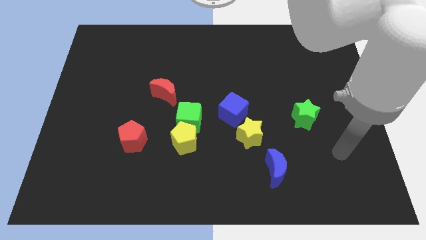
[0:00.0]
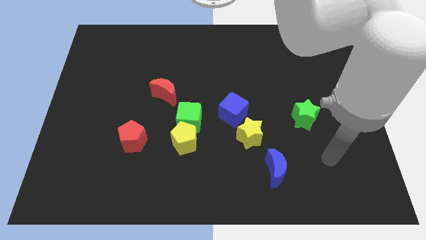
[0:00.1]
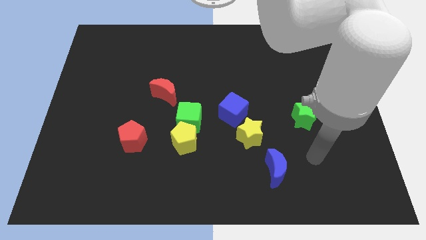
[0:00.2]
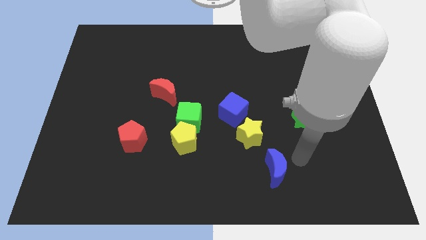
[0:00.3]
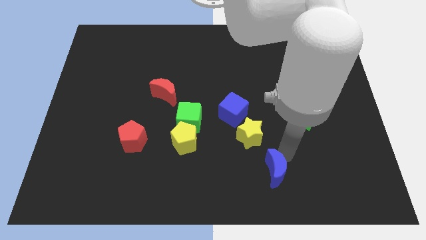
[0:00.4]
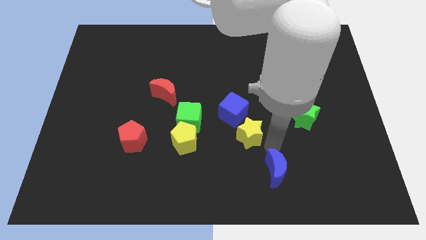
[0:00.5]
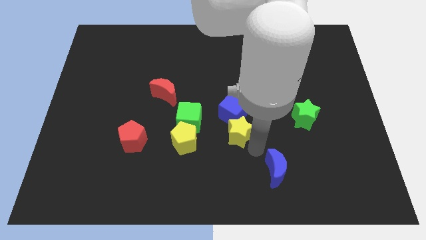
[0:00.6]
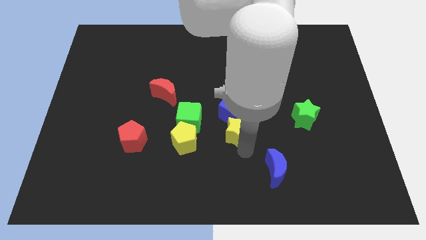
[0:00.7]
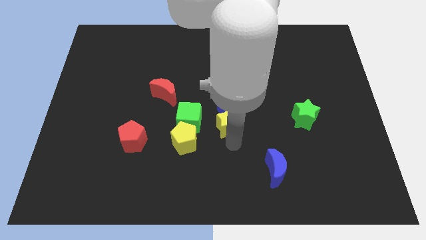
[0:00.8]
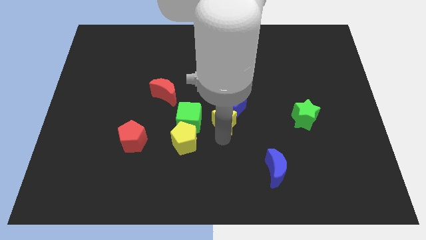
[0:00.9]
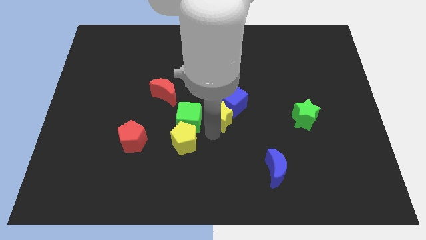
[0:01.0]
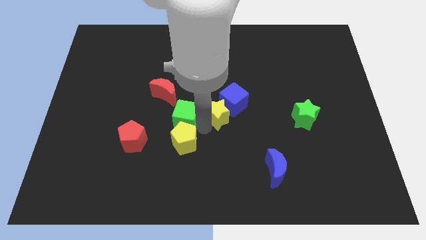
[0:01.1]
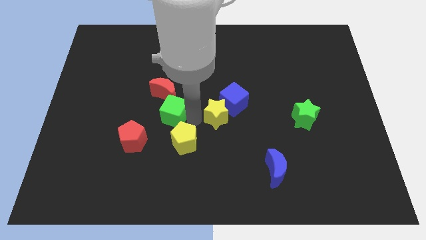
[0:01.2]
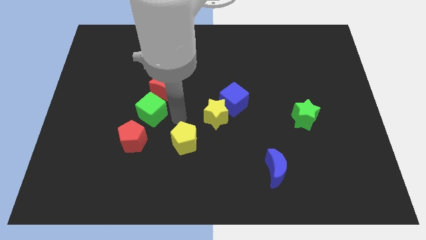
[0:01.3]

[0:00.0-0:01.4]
separate the yellow pentagon from the green cube

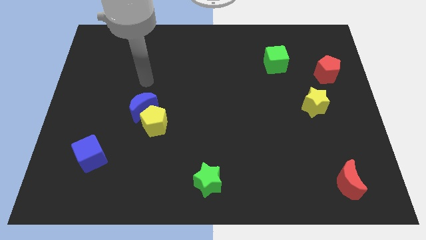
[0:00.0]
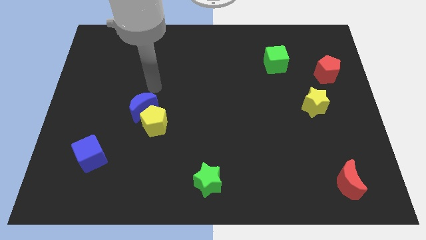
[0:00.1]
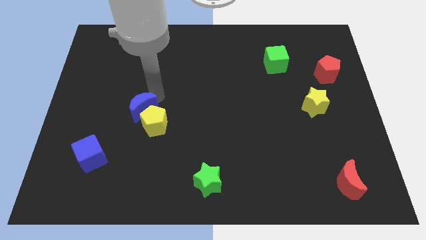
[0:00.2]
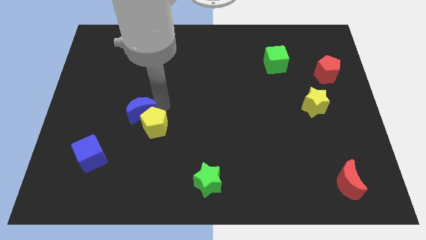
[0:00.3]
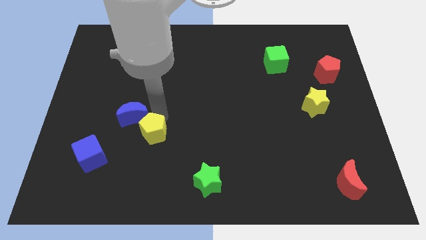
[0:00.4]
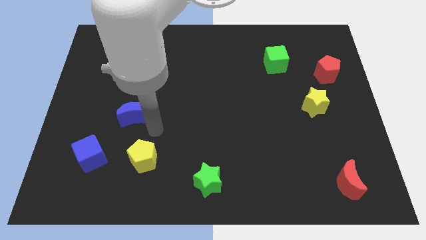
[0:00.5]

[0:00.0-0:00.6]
separate the blue moon from the yellow pentagon

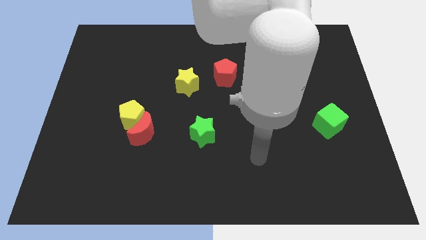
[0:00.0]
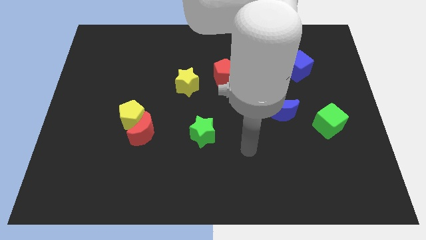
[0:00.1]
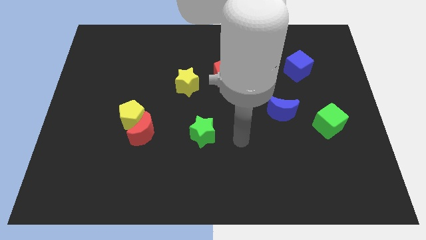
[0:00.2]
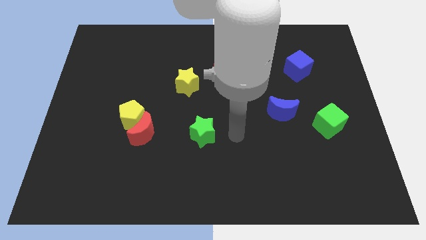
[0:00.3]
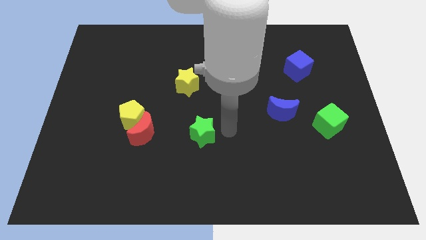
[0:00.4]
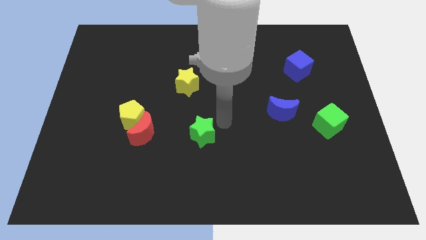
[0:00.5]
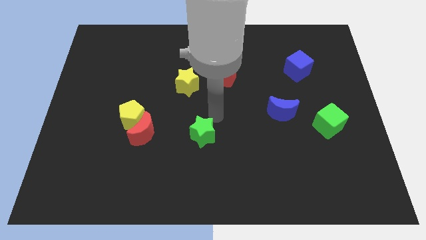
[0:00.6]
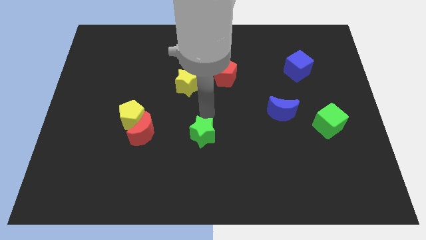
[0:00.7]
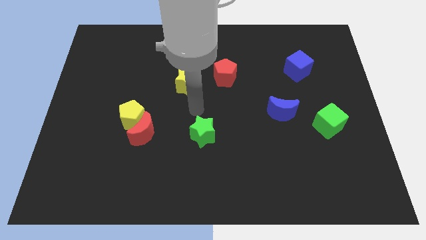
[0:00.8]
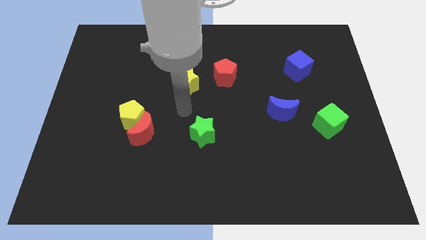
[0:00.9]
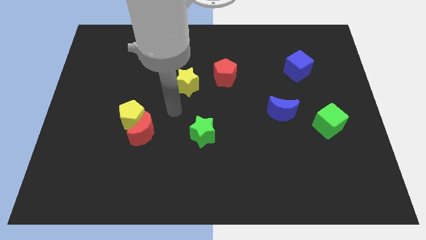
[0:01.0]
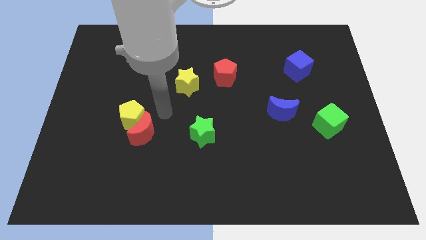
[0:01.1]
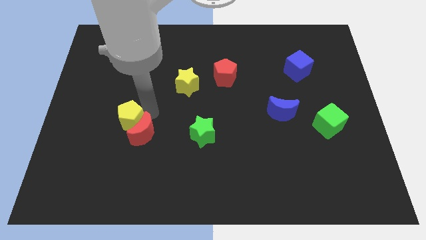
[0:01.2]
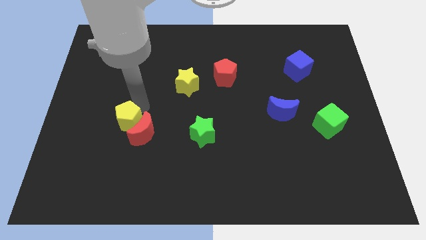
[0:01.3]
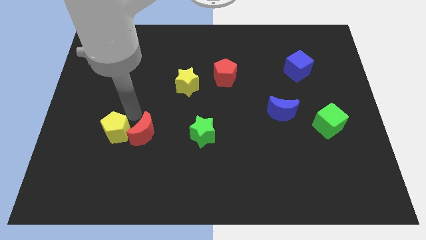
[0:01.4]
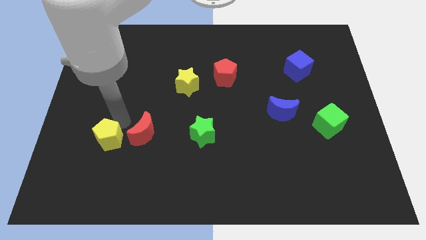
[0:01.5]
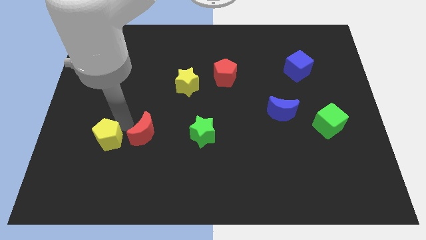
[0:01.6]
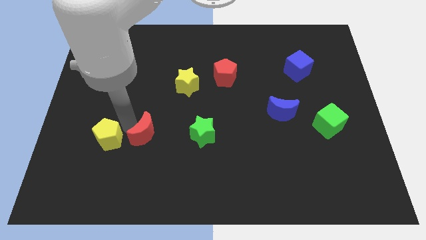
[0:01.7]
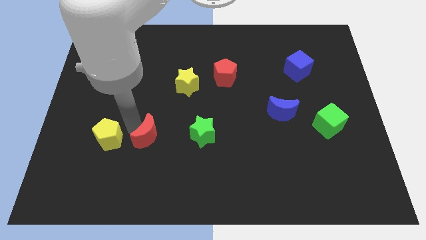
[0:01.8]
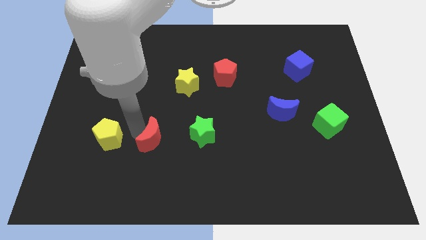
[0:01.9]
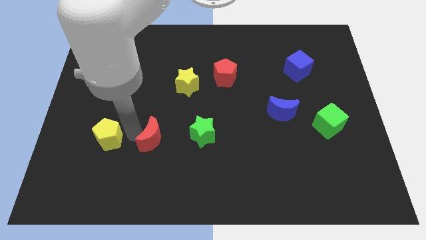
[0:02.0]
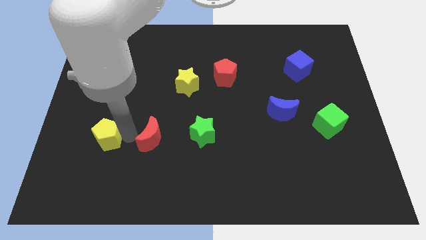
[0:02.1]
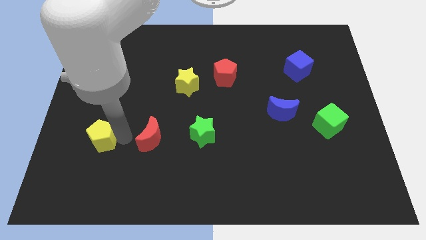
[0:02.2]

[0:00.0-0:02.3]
move the red moon away from the yellow pentagon

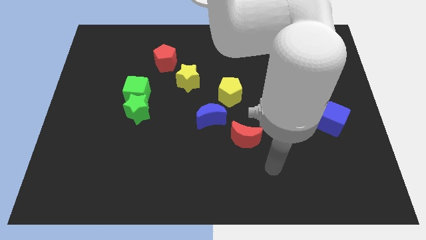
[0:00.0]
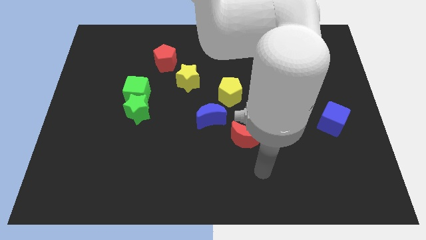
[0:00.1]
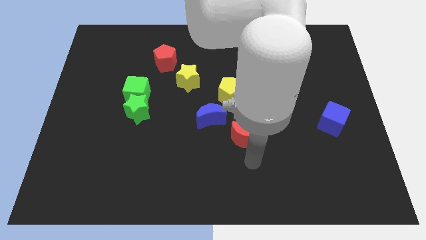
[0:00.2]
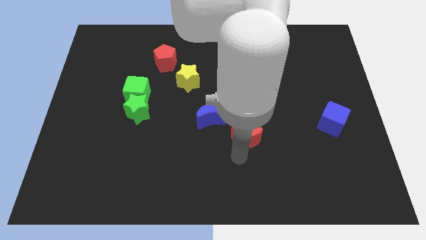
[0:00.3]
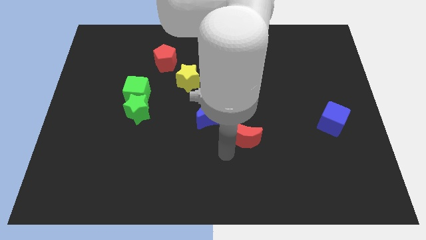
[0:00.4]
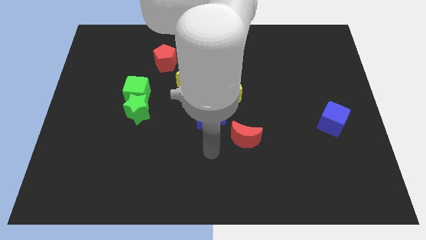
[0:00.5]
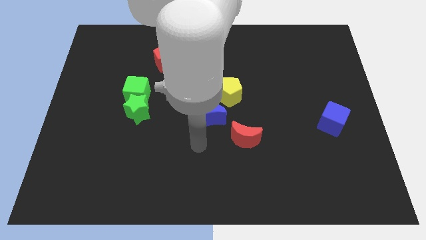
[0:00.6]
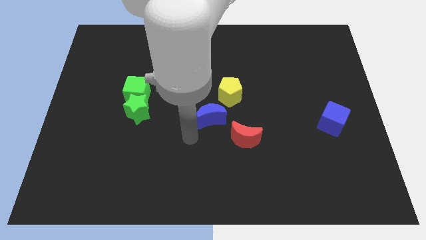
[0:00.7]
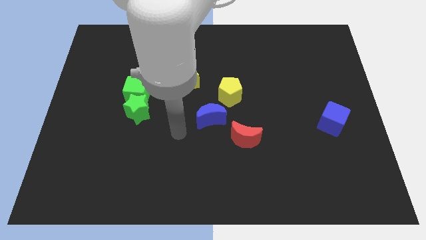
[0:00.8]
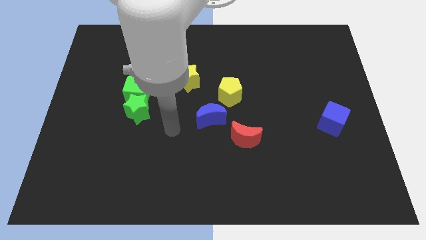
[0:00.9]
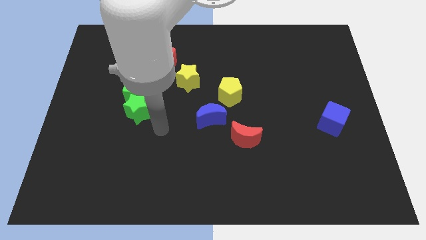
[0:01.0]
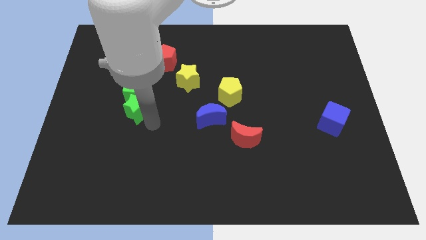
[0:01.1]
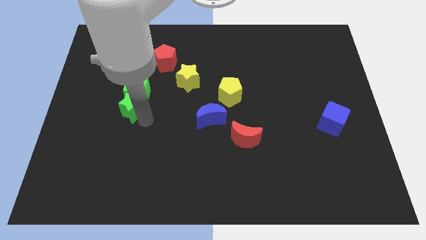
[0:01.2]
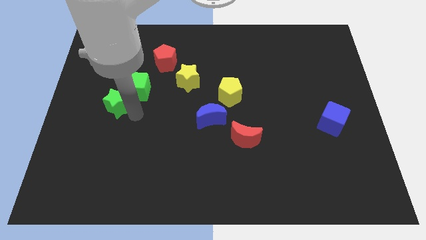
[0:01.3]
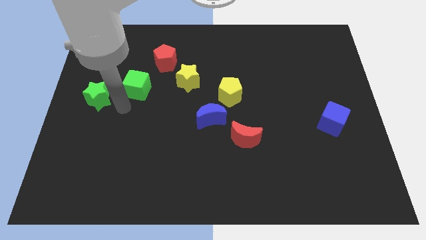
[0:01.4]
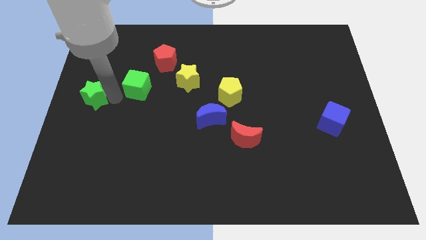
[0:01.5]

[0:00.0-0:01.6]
move the green cube away from the green star

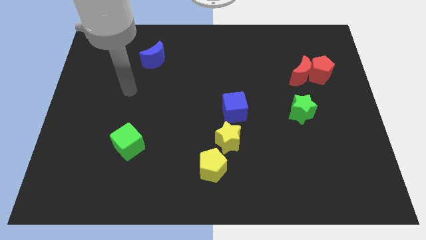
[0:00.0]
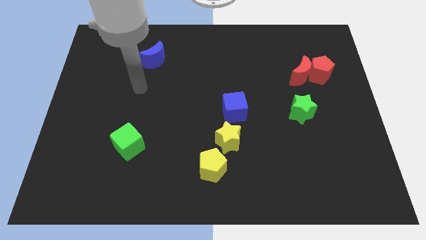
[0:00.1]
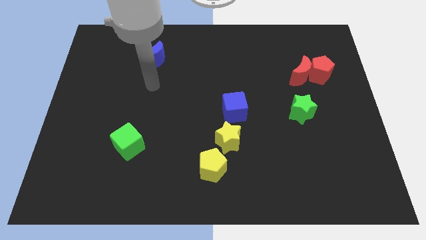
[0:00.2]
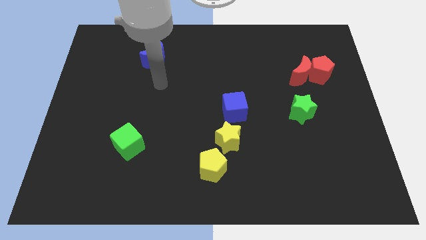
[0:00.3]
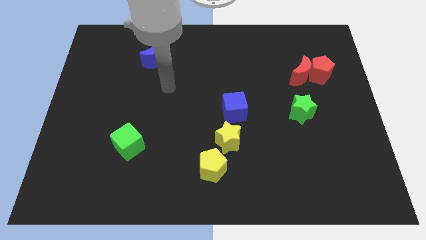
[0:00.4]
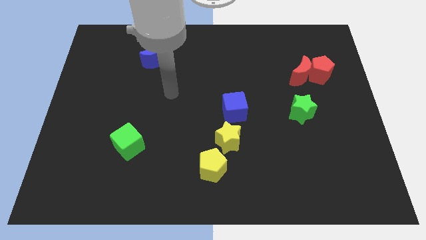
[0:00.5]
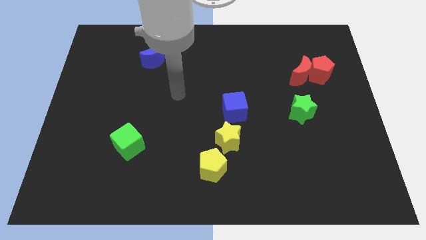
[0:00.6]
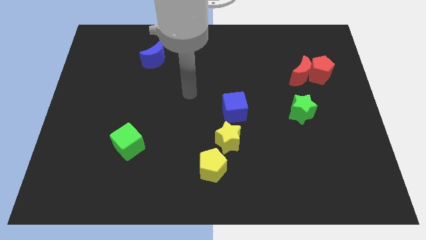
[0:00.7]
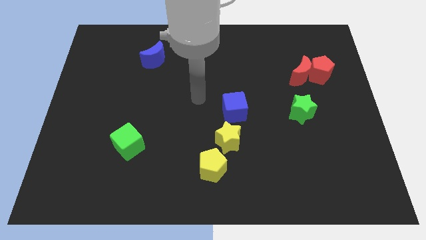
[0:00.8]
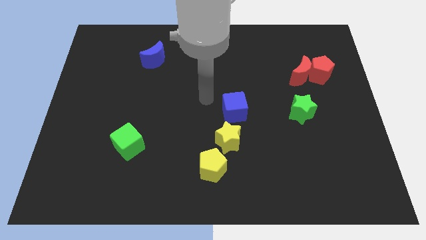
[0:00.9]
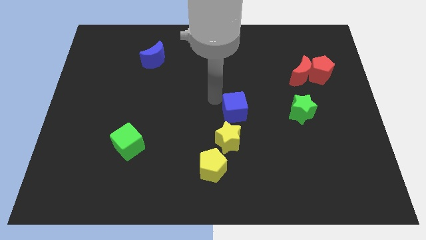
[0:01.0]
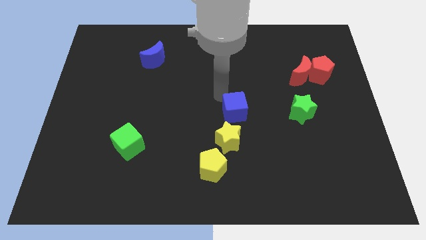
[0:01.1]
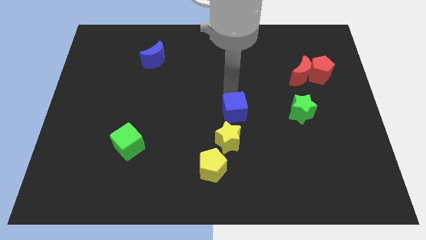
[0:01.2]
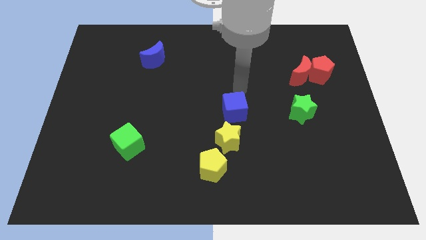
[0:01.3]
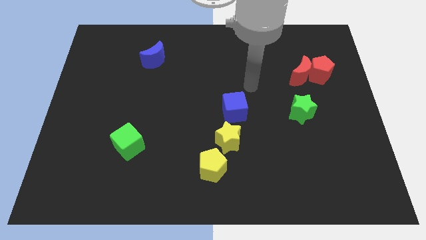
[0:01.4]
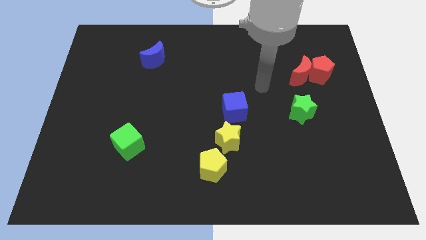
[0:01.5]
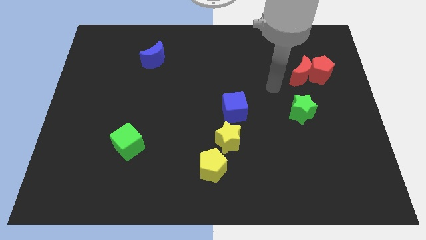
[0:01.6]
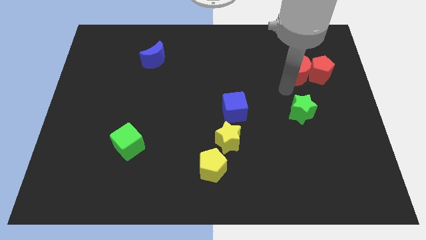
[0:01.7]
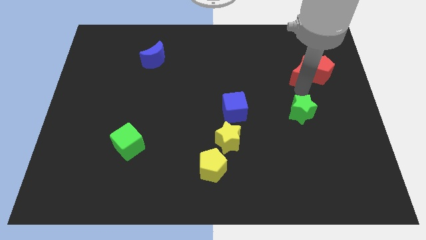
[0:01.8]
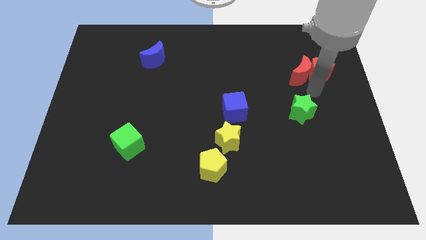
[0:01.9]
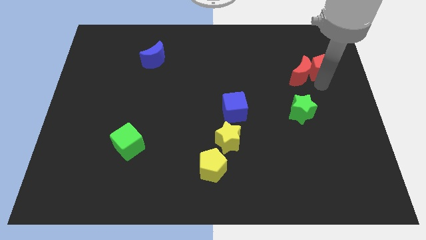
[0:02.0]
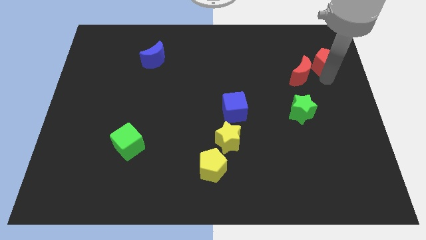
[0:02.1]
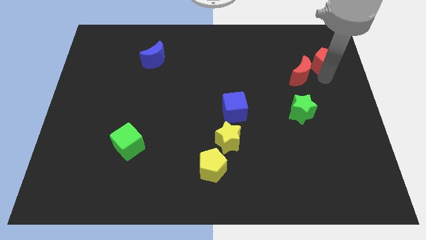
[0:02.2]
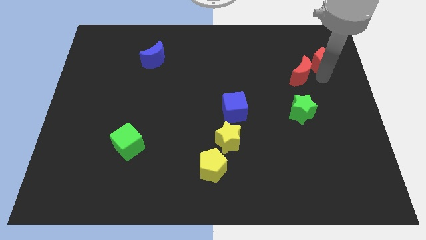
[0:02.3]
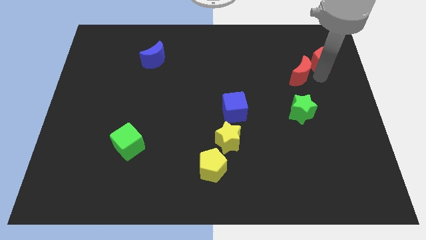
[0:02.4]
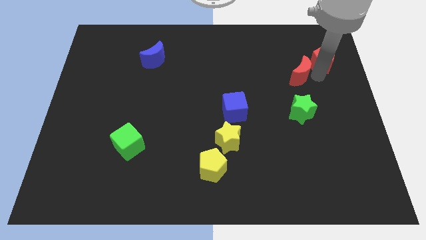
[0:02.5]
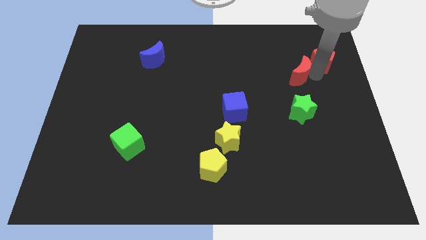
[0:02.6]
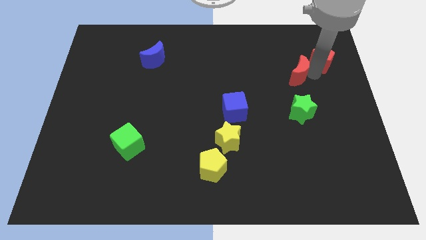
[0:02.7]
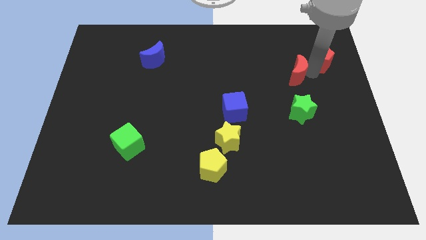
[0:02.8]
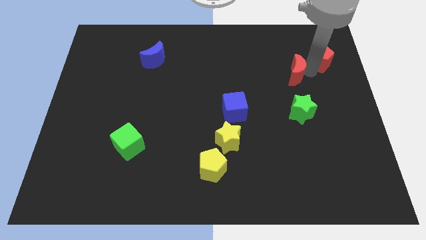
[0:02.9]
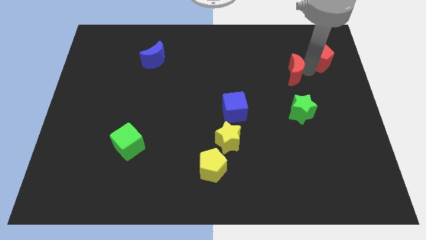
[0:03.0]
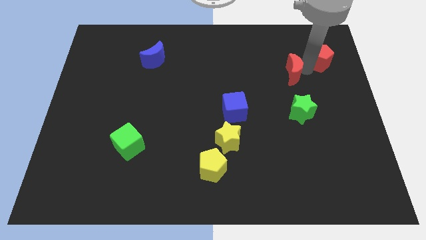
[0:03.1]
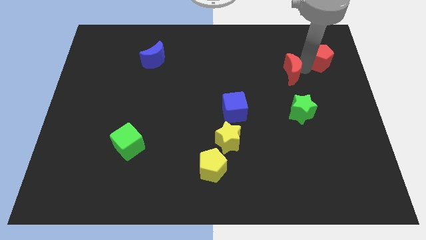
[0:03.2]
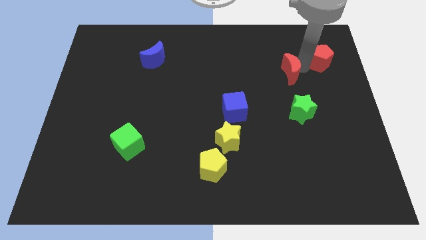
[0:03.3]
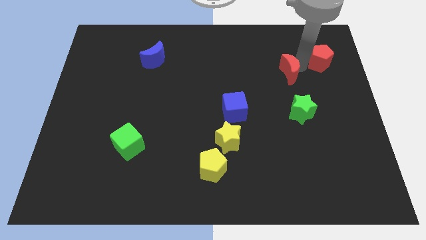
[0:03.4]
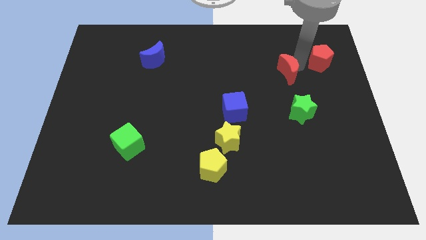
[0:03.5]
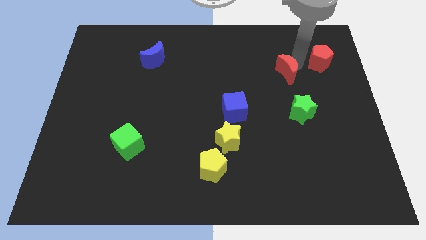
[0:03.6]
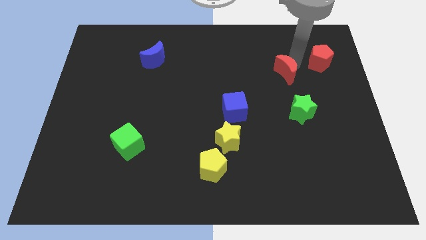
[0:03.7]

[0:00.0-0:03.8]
pull the red moon apart from the red pentagon
